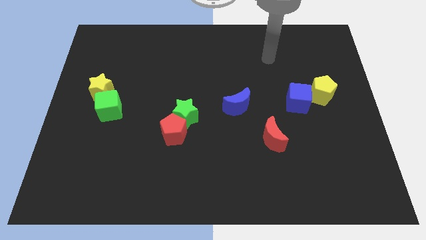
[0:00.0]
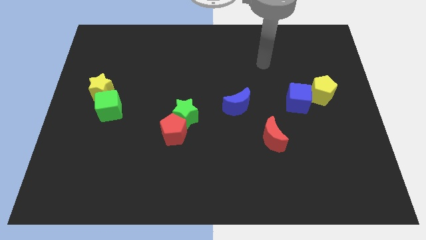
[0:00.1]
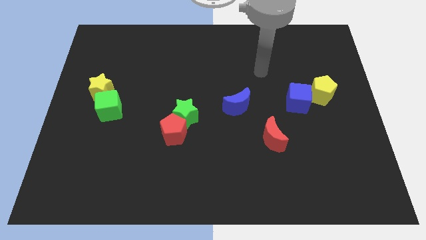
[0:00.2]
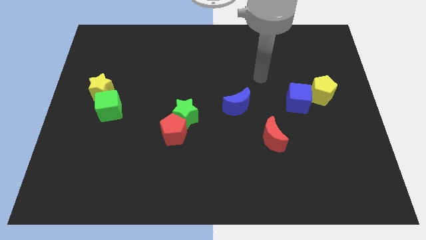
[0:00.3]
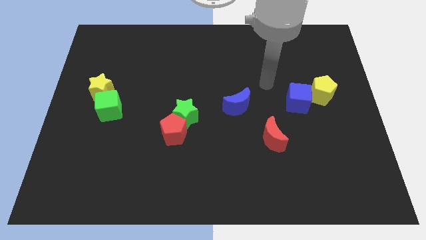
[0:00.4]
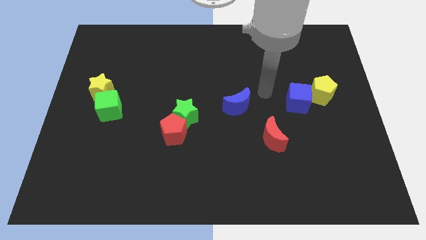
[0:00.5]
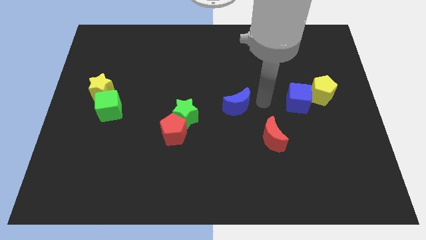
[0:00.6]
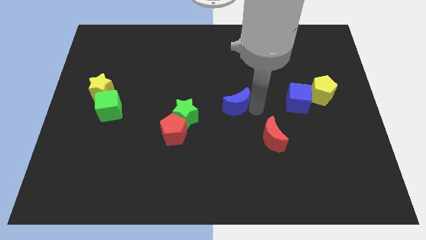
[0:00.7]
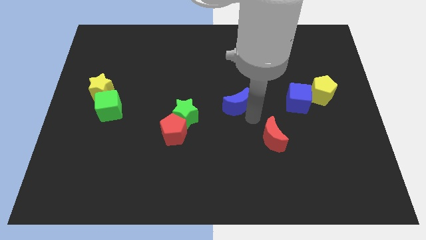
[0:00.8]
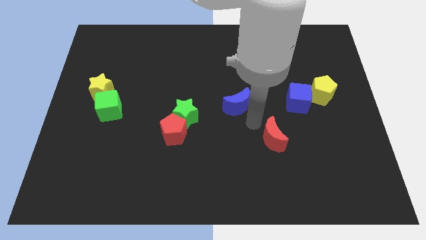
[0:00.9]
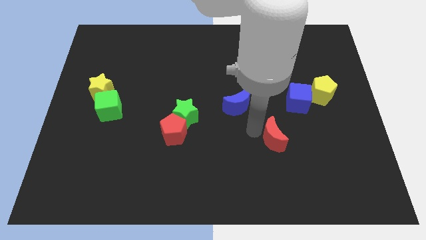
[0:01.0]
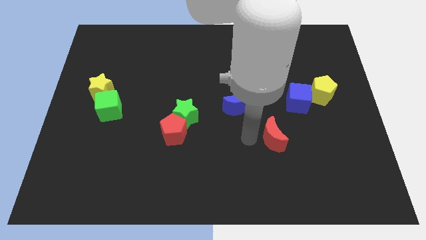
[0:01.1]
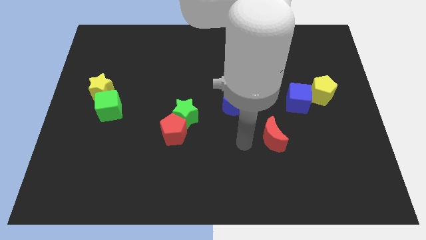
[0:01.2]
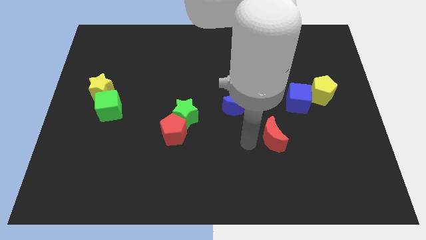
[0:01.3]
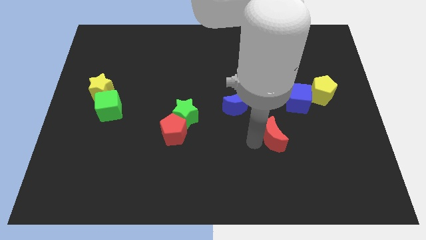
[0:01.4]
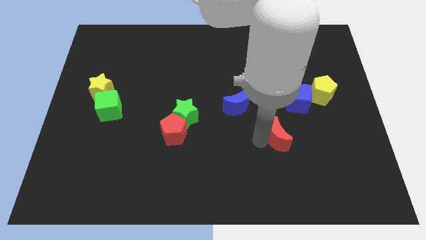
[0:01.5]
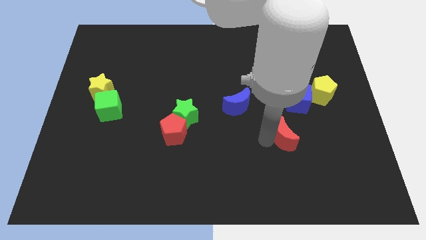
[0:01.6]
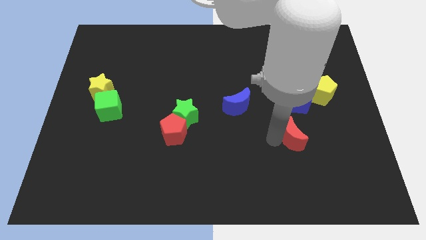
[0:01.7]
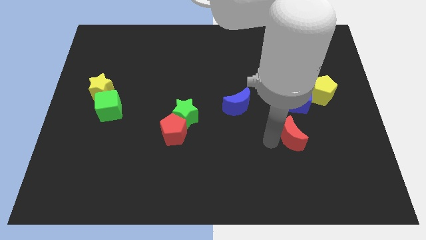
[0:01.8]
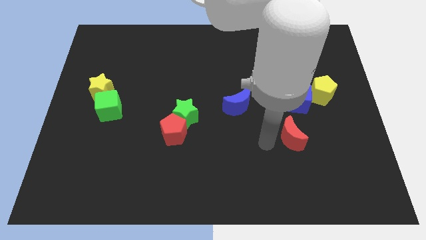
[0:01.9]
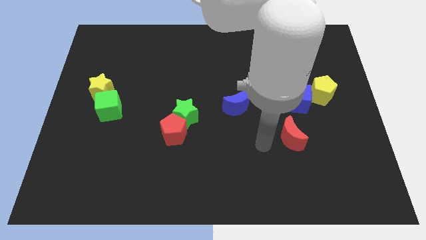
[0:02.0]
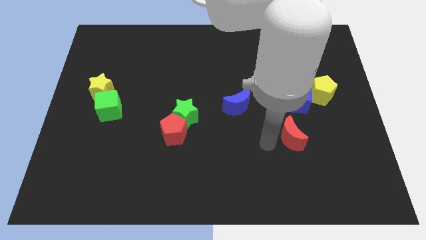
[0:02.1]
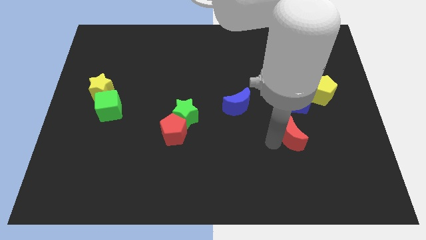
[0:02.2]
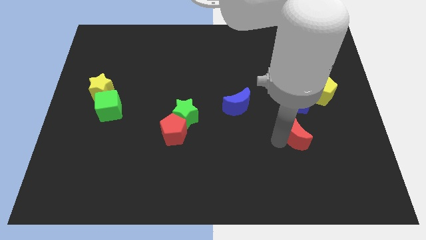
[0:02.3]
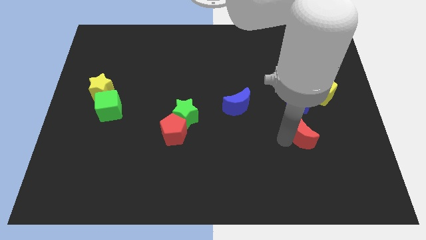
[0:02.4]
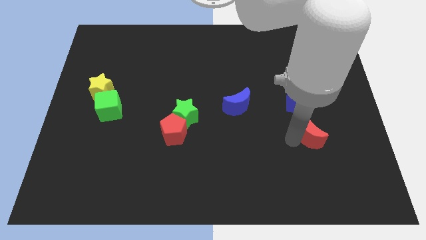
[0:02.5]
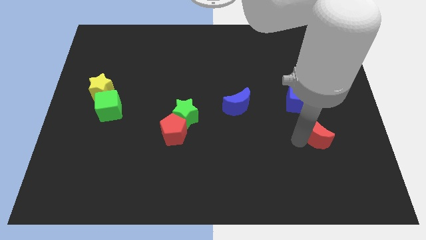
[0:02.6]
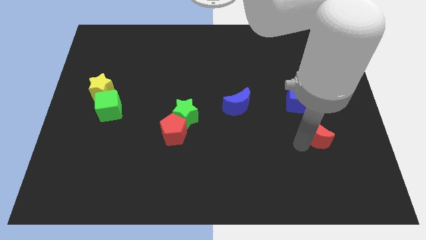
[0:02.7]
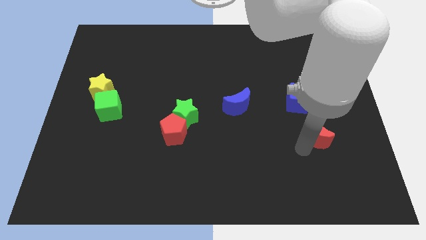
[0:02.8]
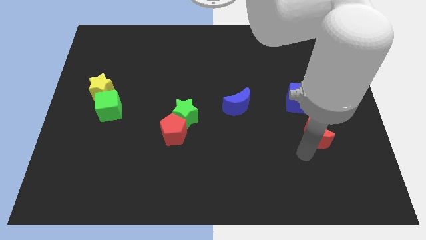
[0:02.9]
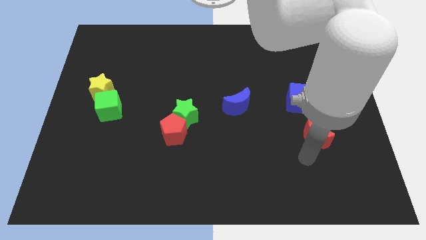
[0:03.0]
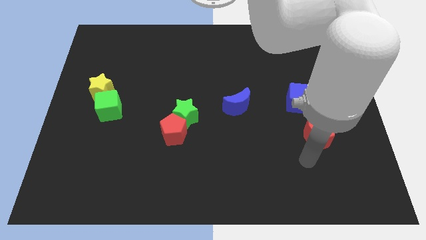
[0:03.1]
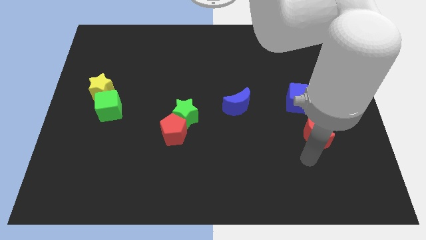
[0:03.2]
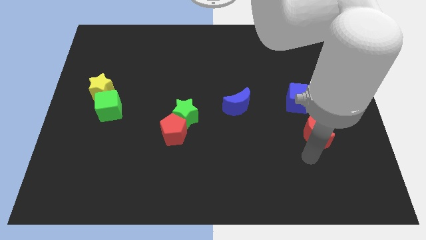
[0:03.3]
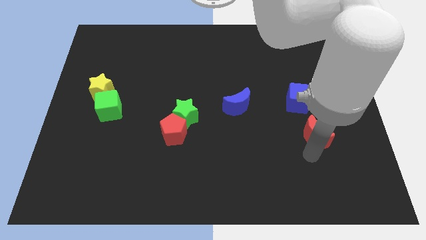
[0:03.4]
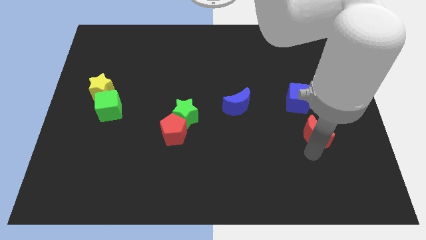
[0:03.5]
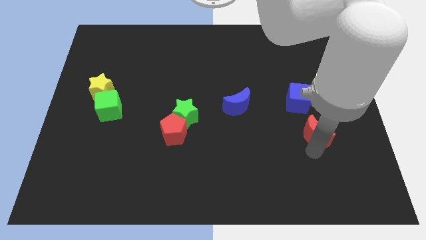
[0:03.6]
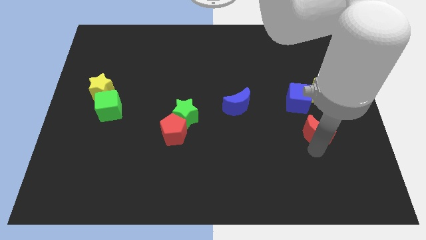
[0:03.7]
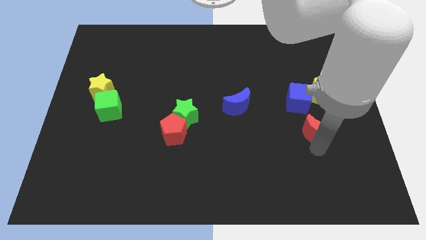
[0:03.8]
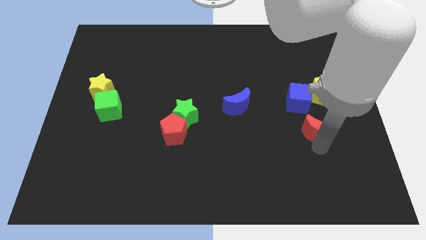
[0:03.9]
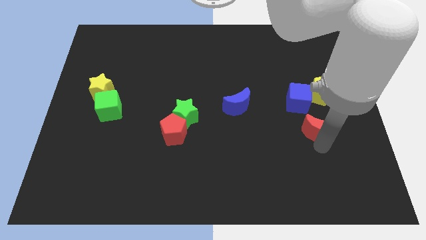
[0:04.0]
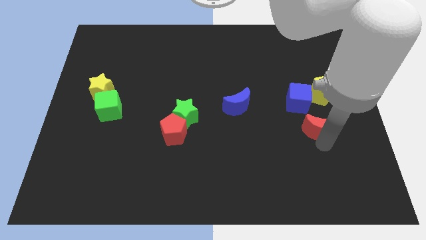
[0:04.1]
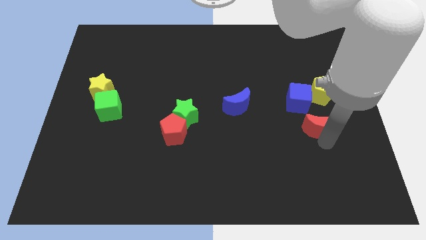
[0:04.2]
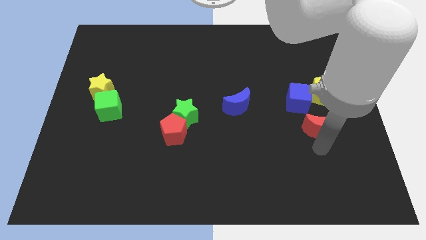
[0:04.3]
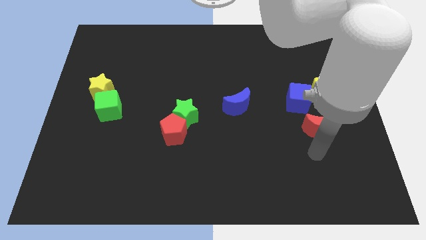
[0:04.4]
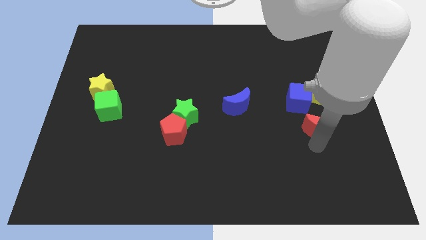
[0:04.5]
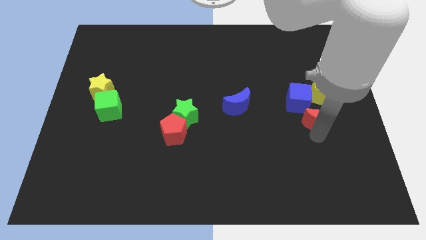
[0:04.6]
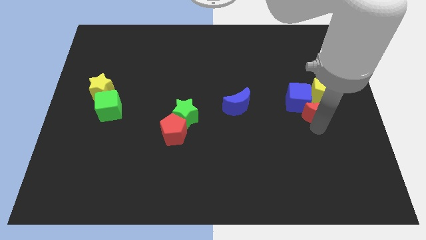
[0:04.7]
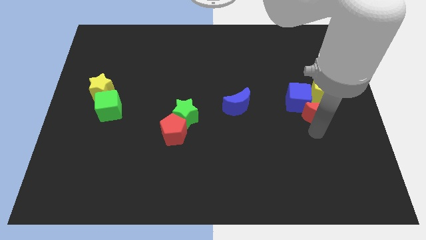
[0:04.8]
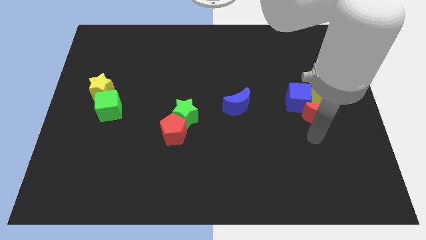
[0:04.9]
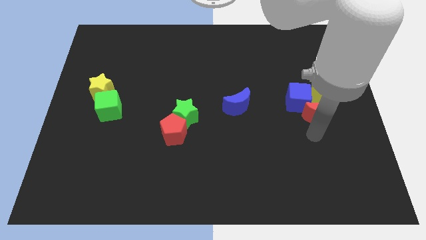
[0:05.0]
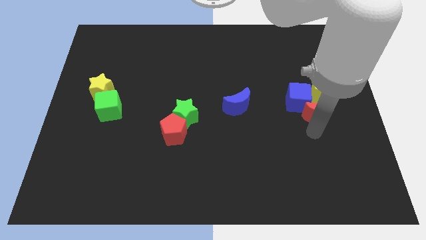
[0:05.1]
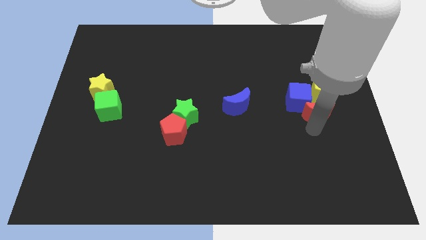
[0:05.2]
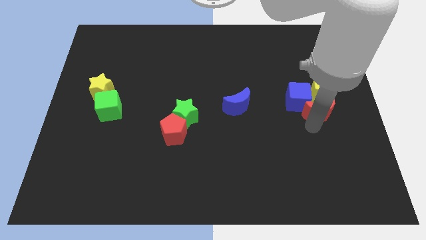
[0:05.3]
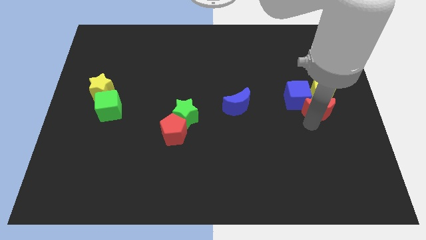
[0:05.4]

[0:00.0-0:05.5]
move the red moon close to the yellow pentagon

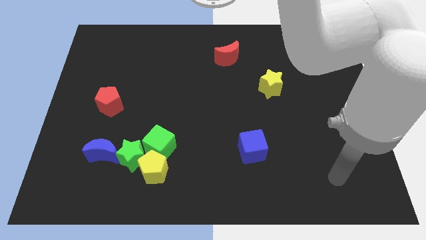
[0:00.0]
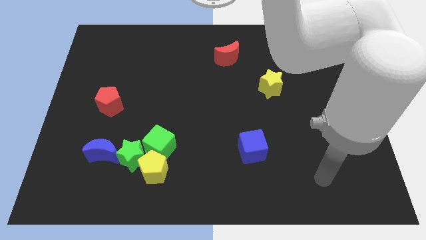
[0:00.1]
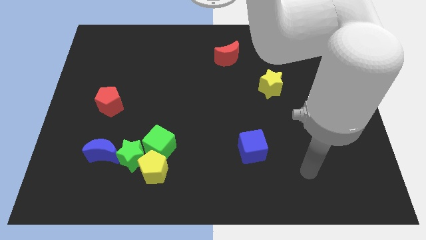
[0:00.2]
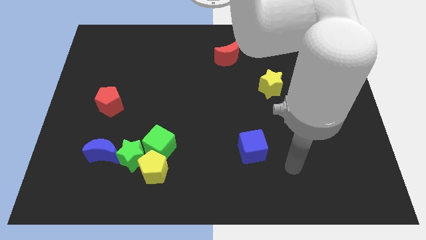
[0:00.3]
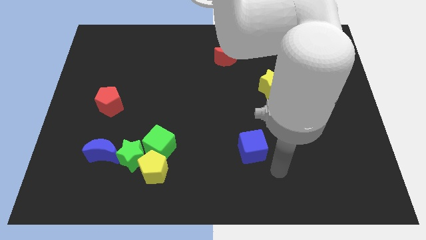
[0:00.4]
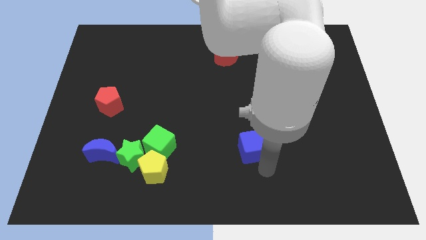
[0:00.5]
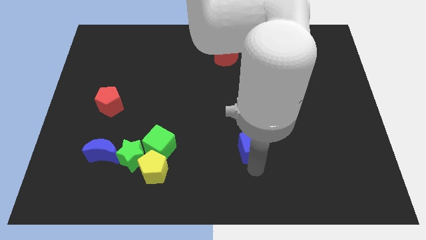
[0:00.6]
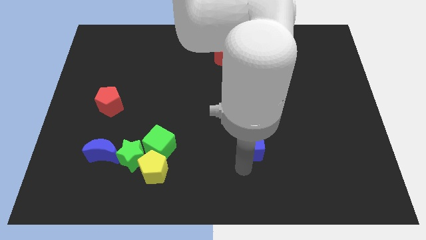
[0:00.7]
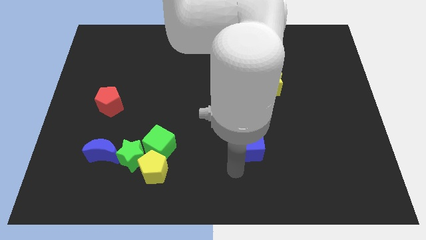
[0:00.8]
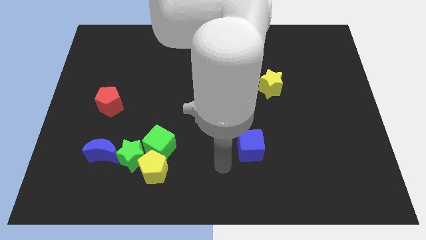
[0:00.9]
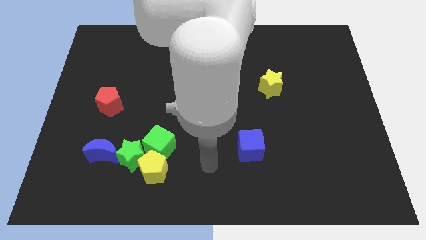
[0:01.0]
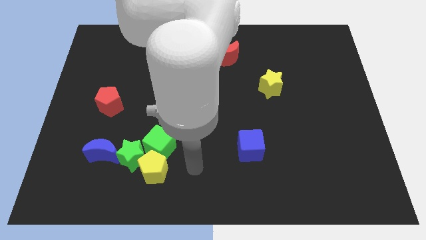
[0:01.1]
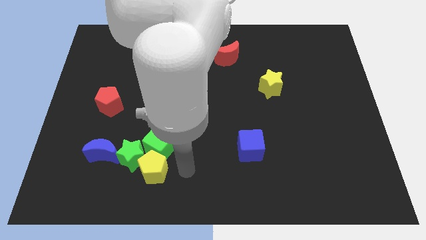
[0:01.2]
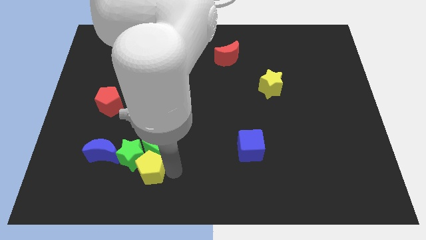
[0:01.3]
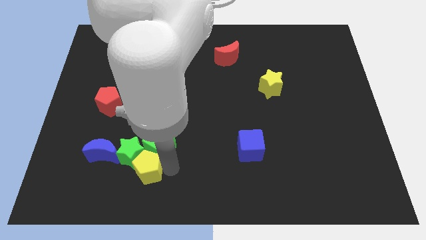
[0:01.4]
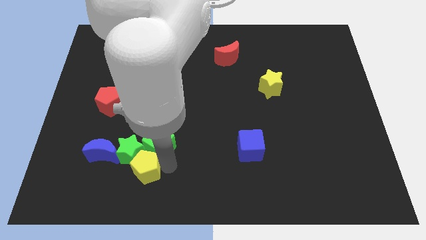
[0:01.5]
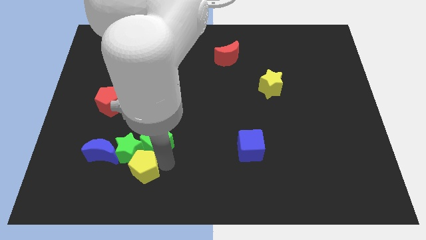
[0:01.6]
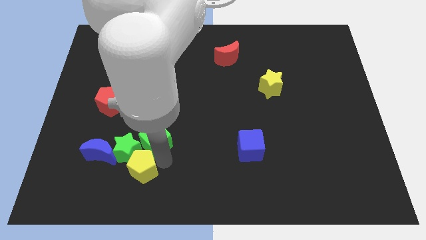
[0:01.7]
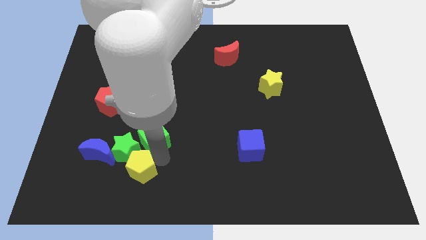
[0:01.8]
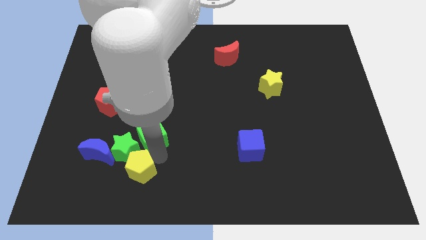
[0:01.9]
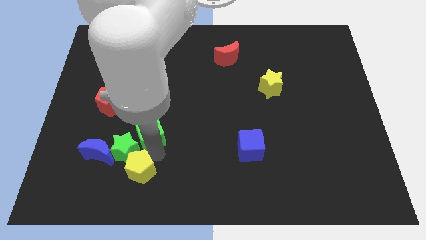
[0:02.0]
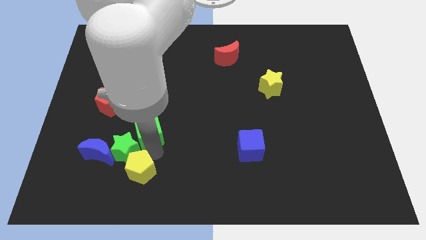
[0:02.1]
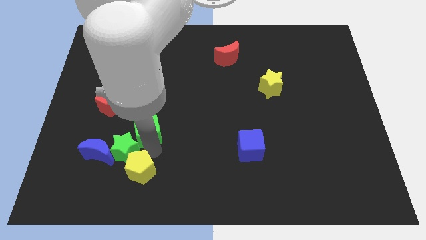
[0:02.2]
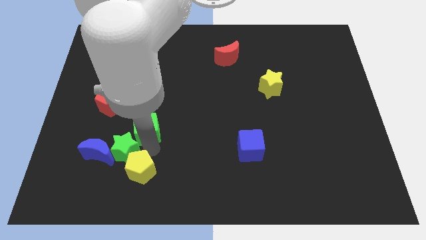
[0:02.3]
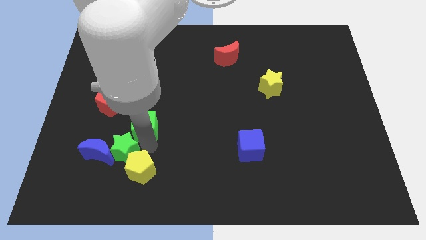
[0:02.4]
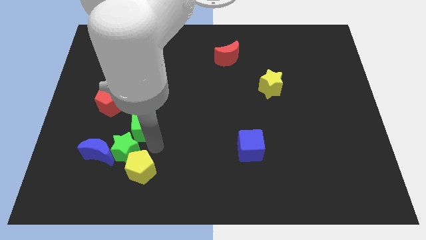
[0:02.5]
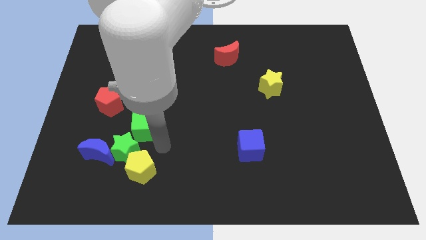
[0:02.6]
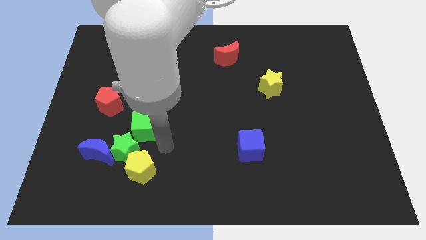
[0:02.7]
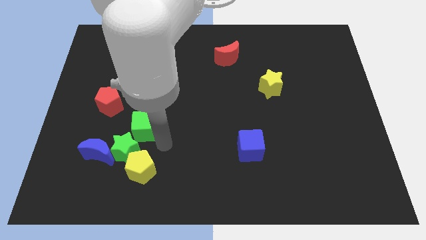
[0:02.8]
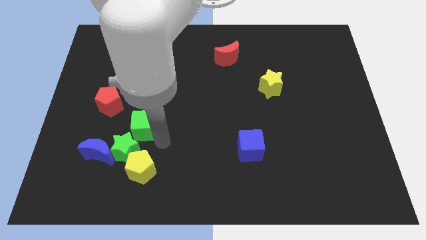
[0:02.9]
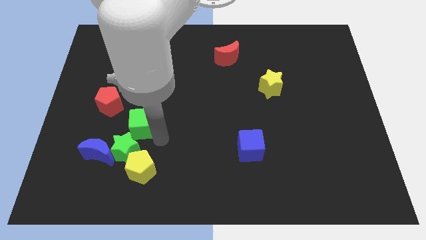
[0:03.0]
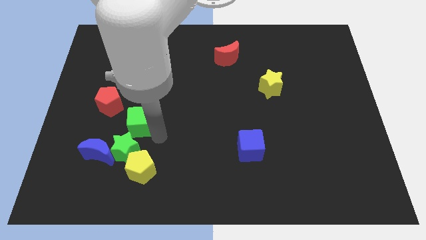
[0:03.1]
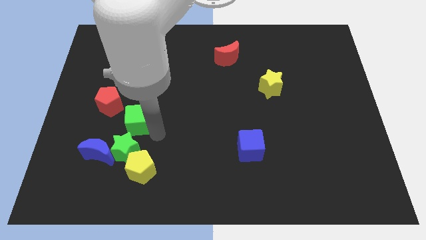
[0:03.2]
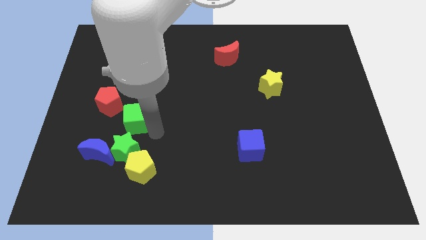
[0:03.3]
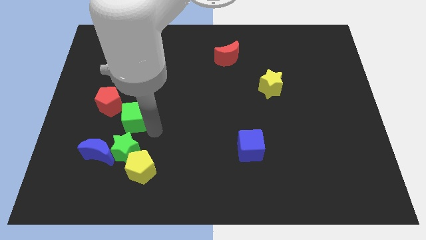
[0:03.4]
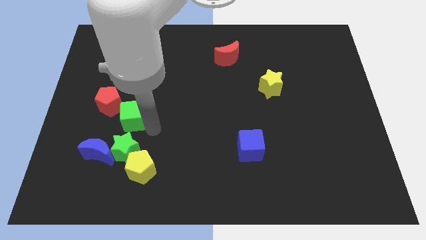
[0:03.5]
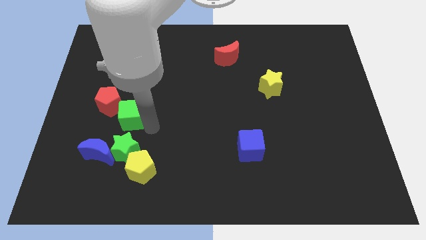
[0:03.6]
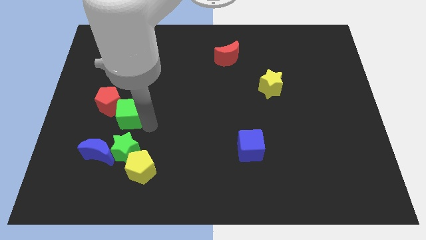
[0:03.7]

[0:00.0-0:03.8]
move the green cube next to the red pentagon
